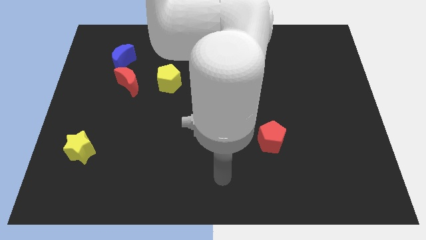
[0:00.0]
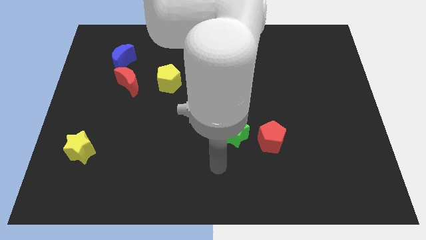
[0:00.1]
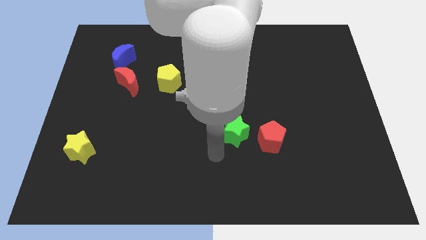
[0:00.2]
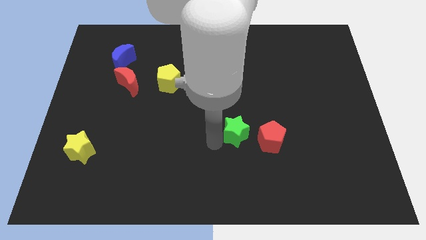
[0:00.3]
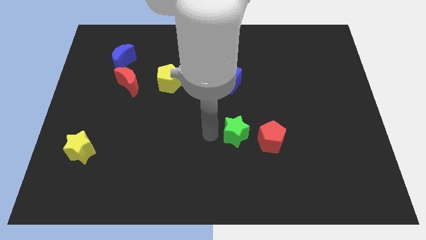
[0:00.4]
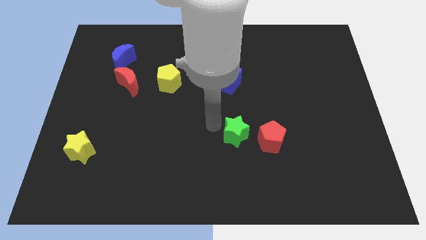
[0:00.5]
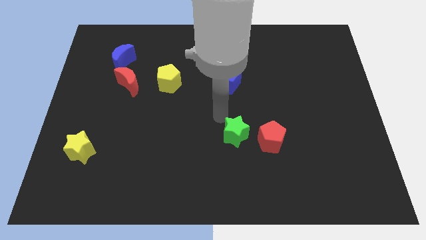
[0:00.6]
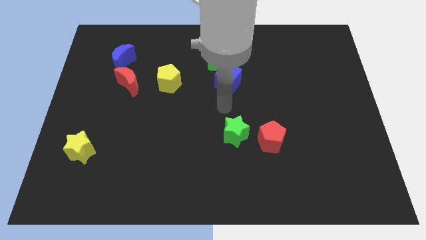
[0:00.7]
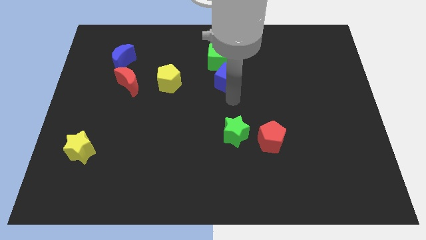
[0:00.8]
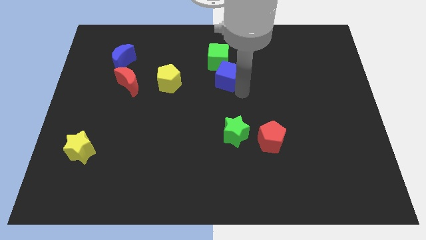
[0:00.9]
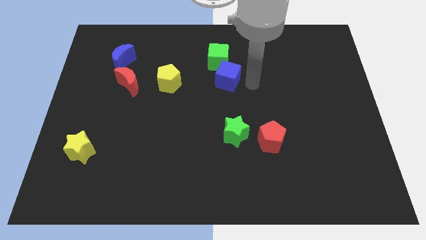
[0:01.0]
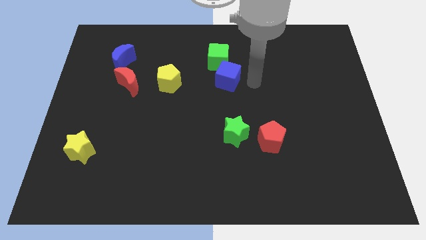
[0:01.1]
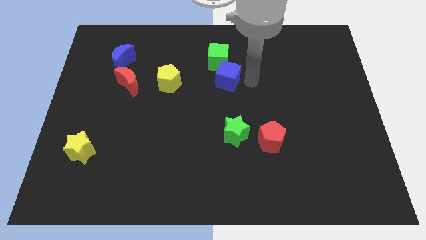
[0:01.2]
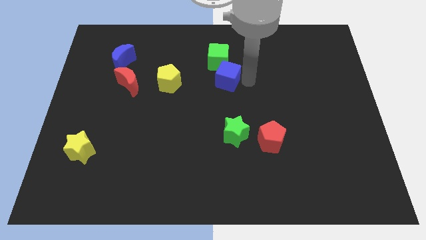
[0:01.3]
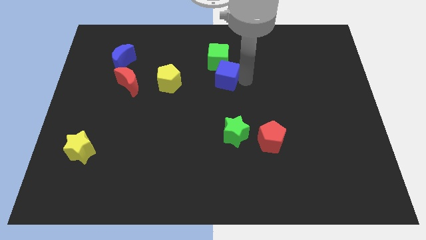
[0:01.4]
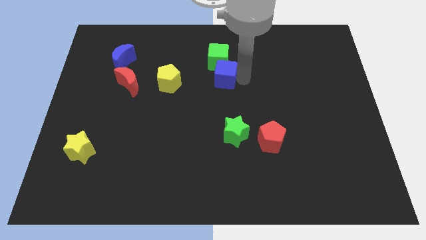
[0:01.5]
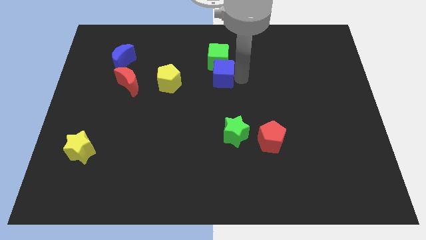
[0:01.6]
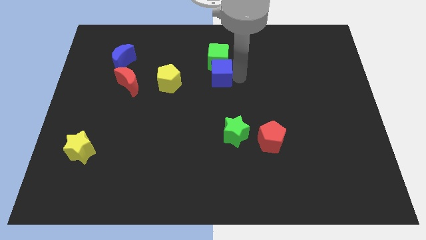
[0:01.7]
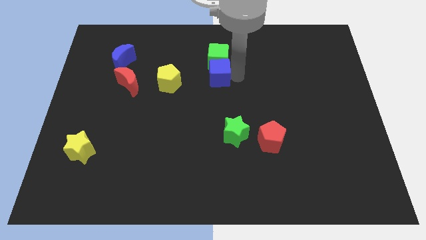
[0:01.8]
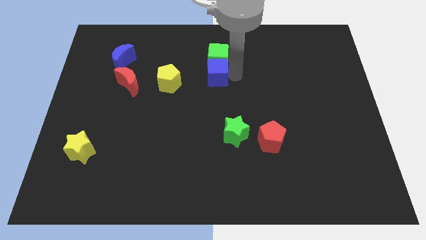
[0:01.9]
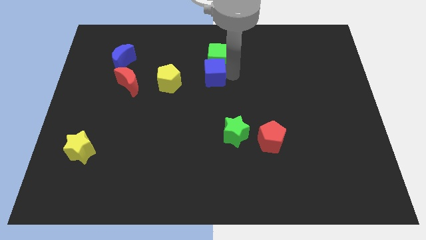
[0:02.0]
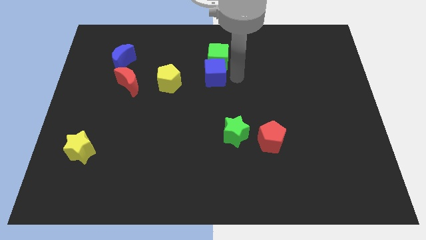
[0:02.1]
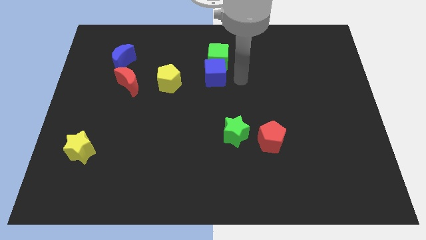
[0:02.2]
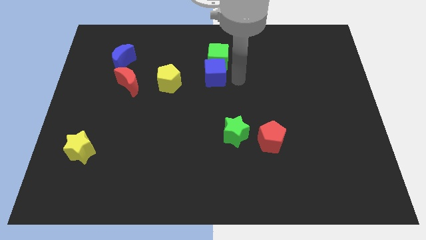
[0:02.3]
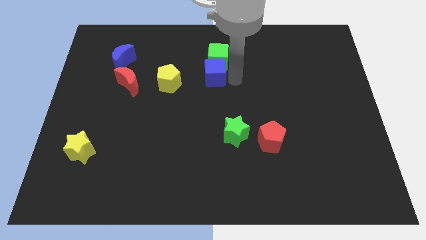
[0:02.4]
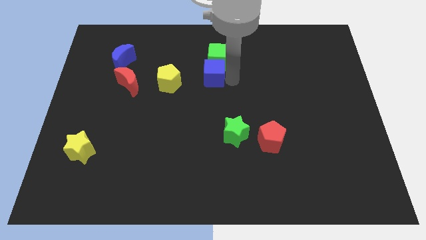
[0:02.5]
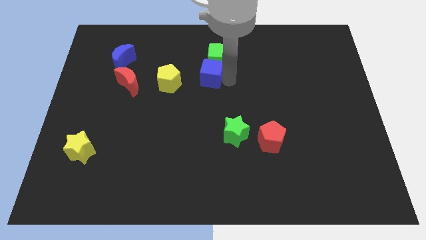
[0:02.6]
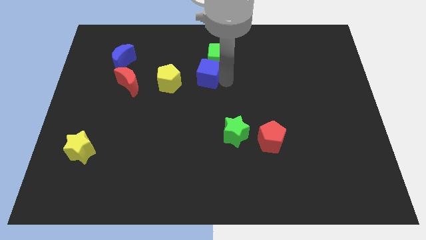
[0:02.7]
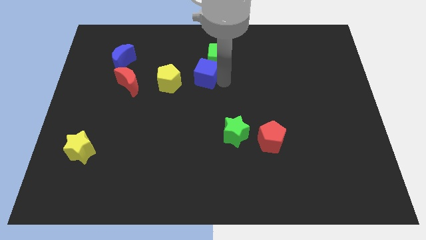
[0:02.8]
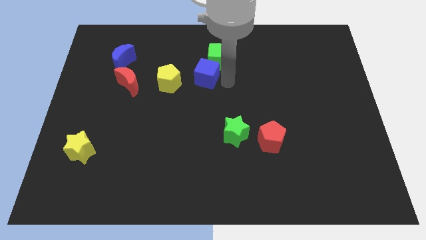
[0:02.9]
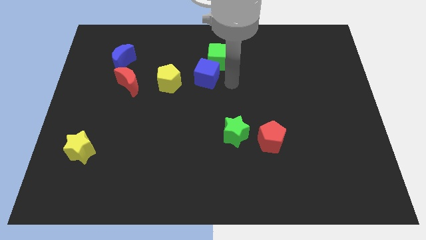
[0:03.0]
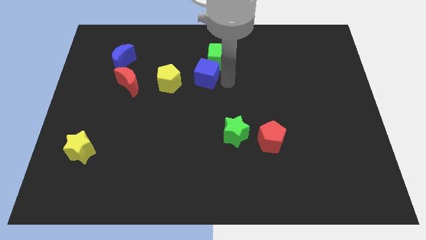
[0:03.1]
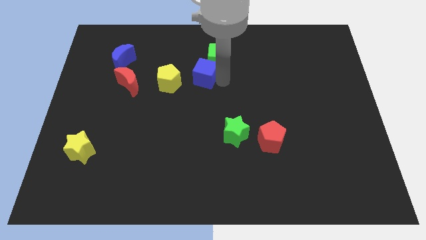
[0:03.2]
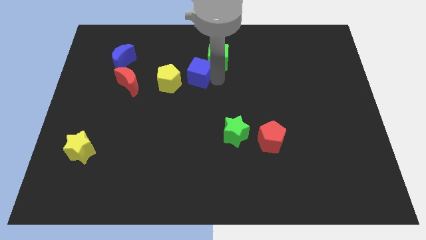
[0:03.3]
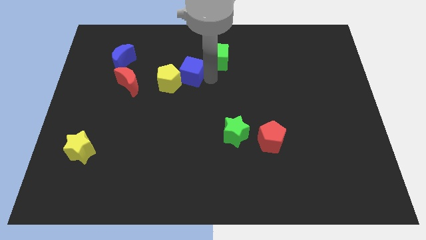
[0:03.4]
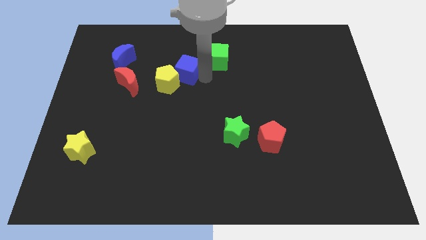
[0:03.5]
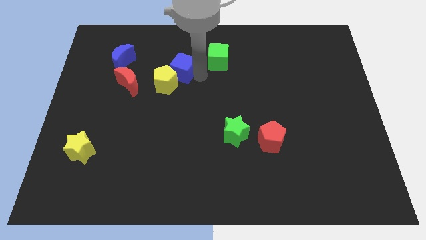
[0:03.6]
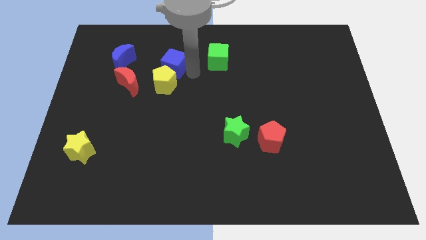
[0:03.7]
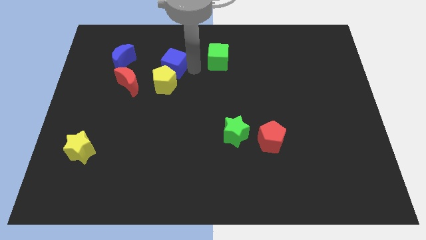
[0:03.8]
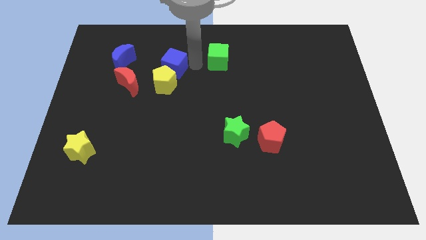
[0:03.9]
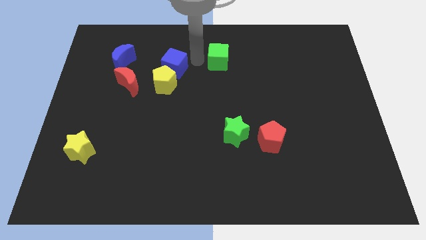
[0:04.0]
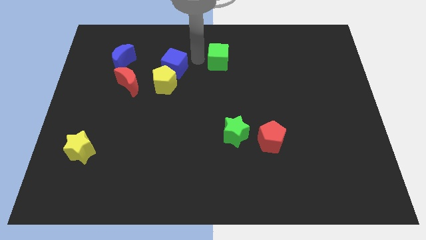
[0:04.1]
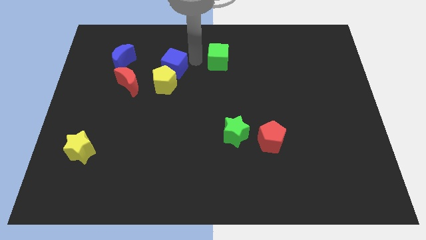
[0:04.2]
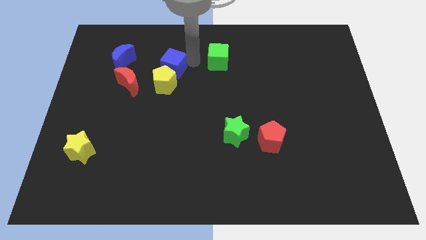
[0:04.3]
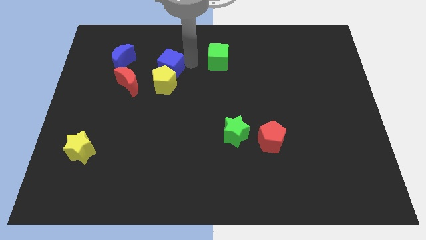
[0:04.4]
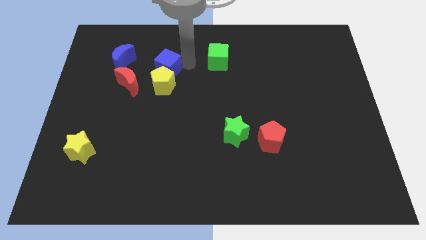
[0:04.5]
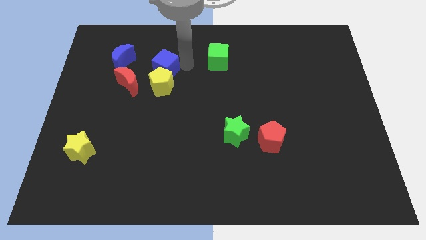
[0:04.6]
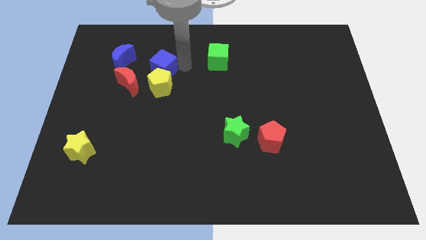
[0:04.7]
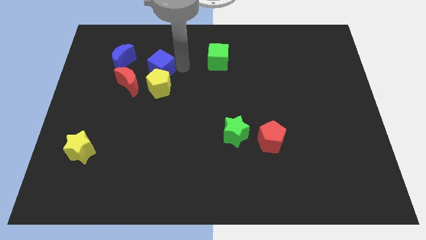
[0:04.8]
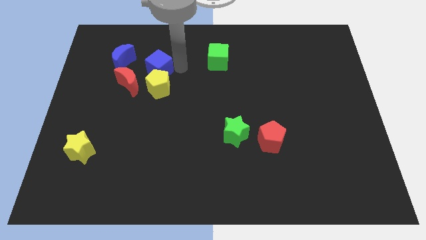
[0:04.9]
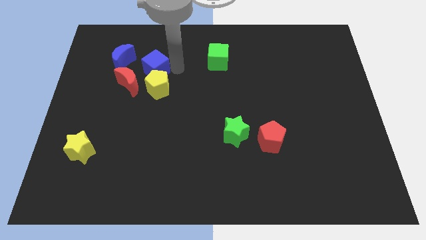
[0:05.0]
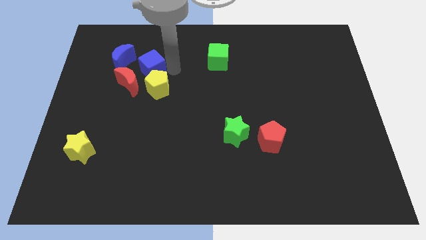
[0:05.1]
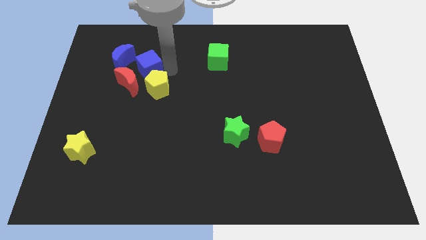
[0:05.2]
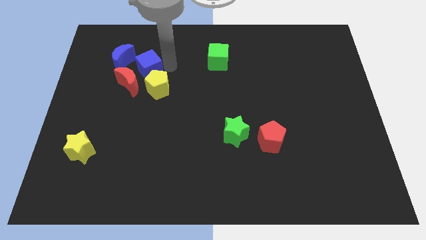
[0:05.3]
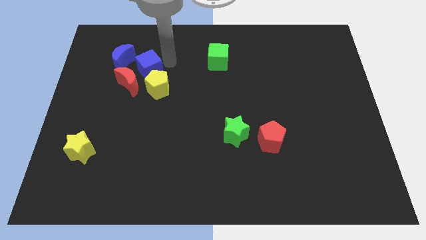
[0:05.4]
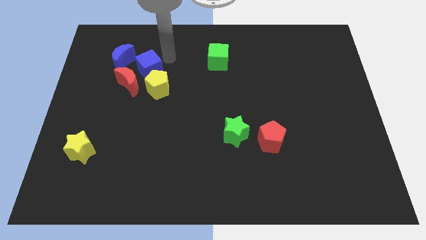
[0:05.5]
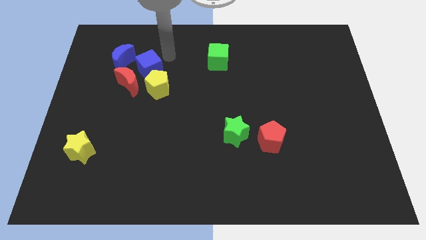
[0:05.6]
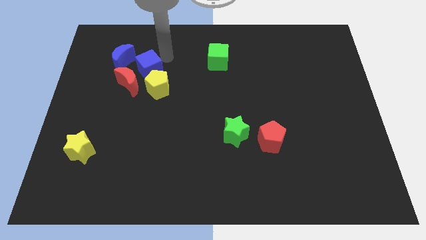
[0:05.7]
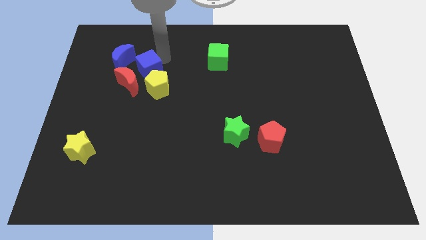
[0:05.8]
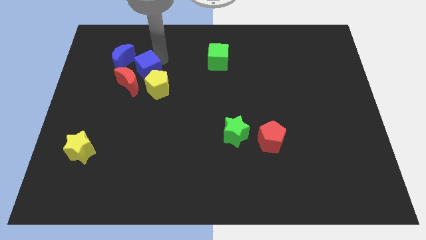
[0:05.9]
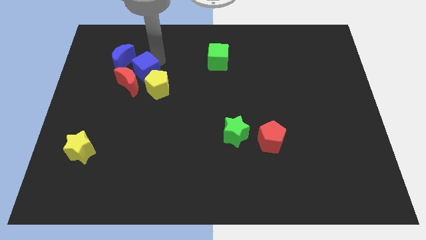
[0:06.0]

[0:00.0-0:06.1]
slide the blue cube to the red moon

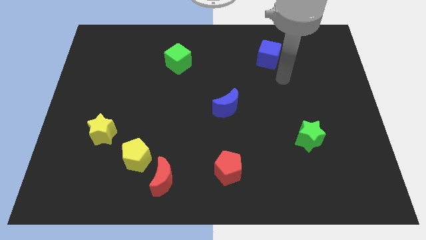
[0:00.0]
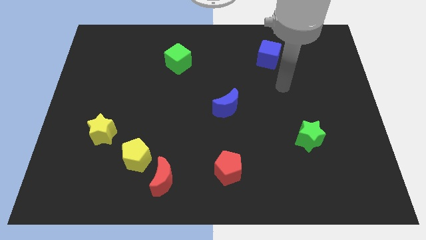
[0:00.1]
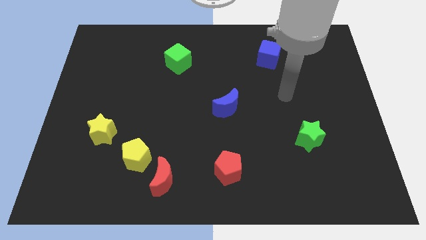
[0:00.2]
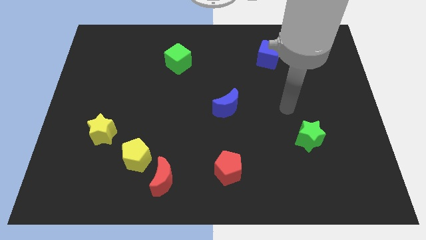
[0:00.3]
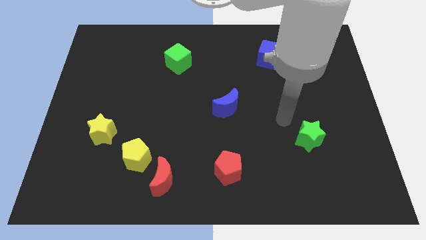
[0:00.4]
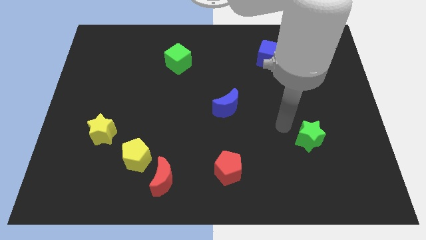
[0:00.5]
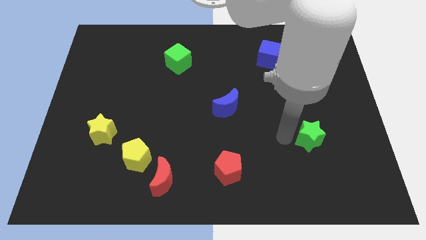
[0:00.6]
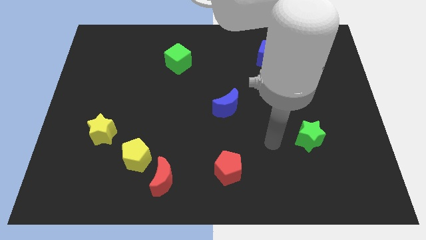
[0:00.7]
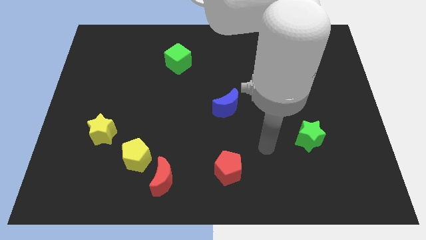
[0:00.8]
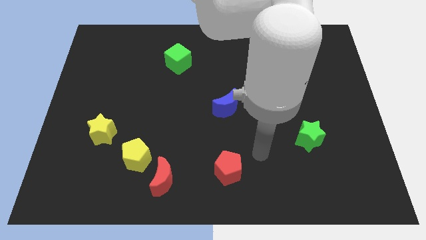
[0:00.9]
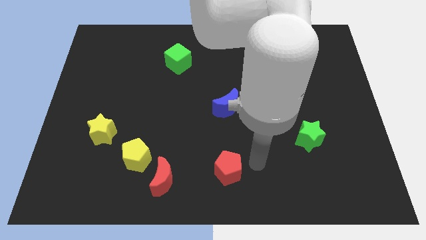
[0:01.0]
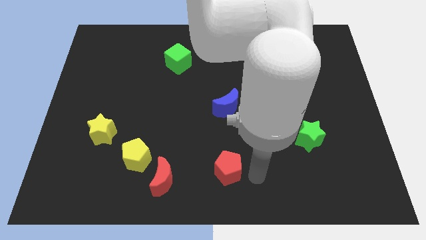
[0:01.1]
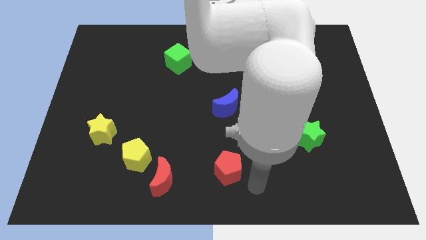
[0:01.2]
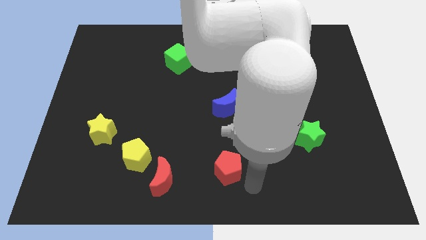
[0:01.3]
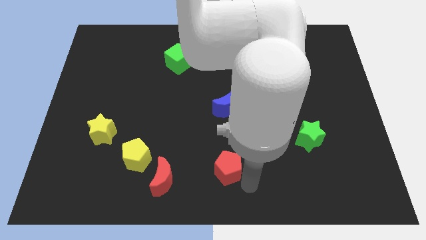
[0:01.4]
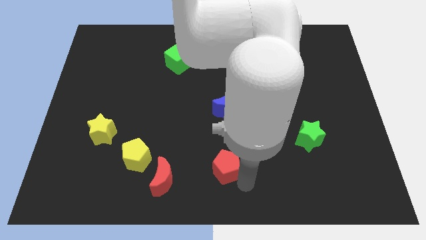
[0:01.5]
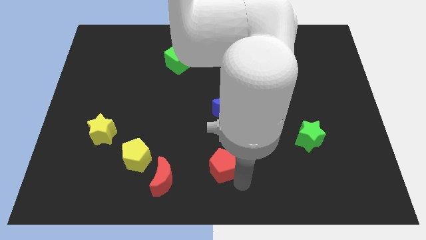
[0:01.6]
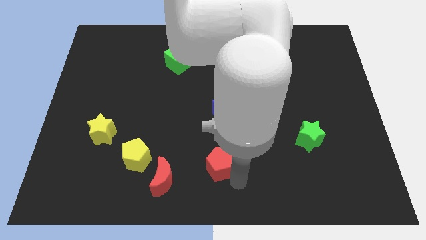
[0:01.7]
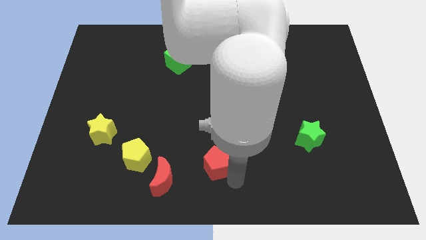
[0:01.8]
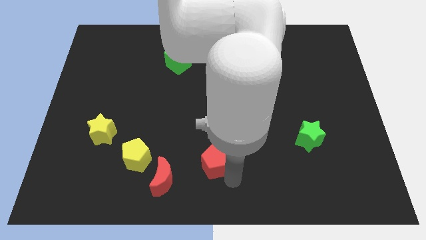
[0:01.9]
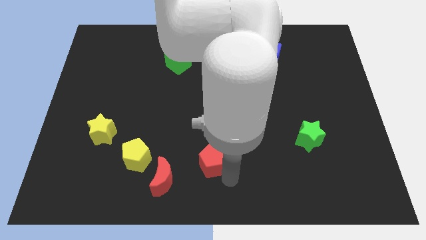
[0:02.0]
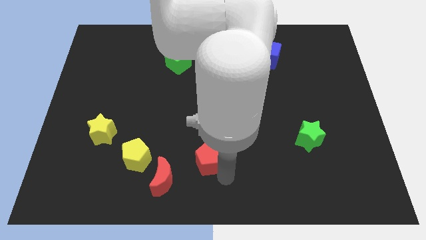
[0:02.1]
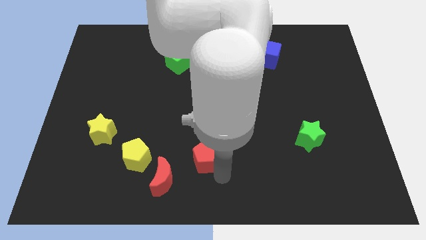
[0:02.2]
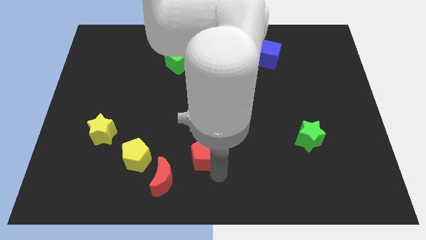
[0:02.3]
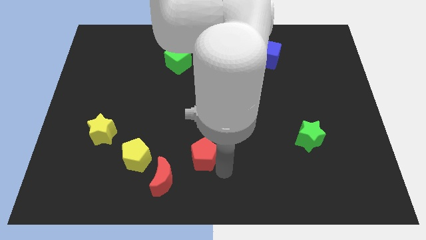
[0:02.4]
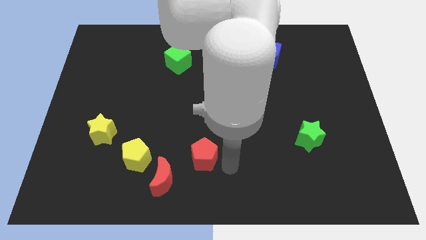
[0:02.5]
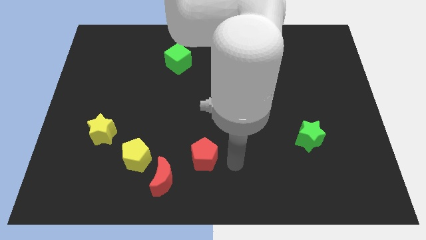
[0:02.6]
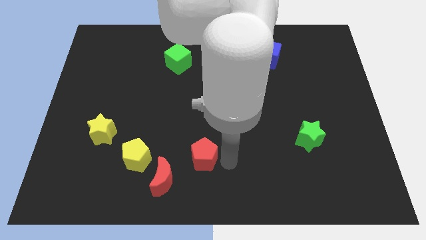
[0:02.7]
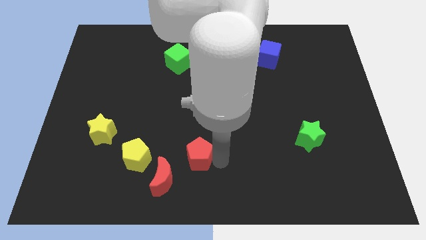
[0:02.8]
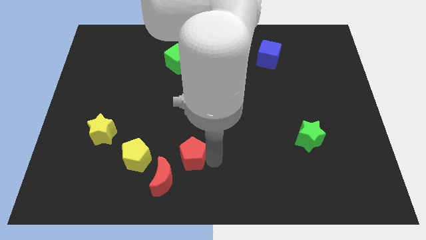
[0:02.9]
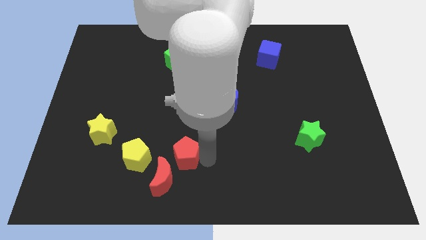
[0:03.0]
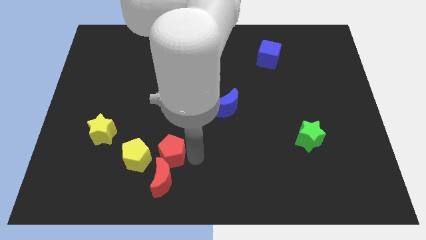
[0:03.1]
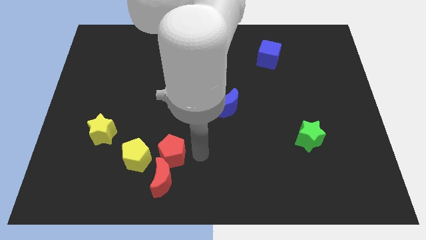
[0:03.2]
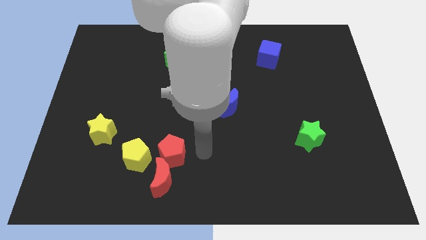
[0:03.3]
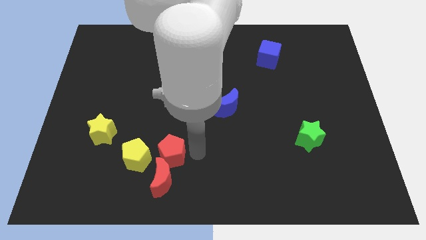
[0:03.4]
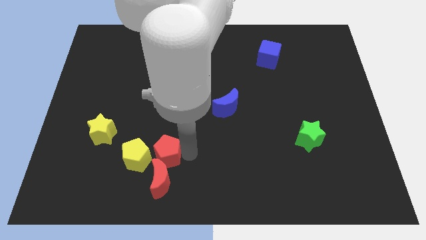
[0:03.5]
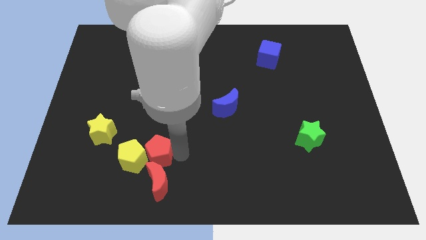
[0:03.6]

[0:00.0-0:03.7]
put the red pentagon close to the yellow pentagon
